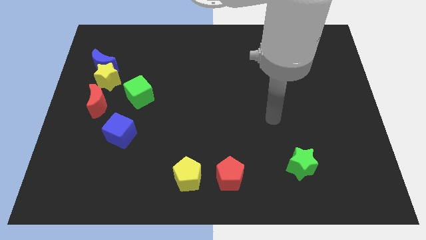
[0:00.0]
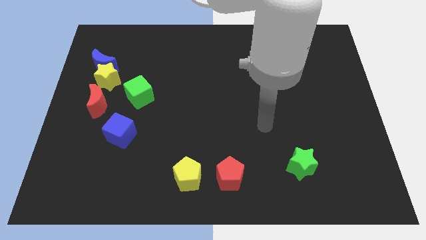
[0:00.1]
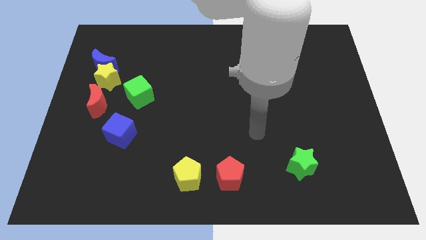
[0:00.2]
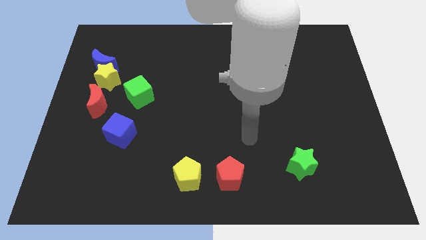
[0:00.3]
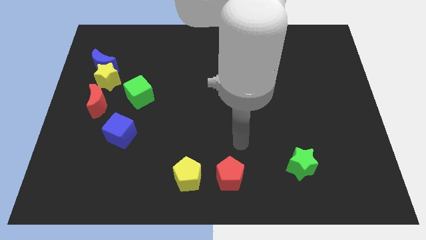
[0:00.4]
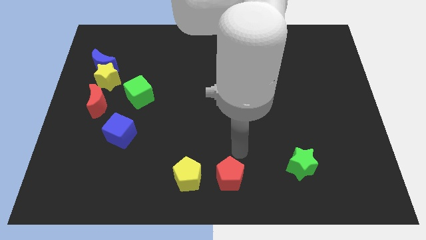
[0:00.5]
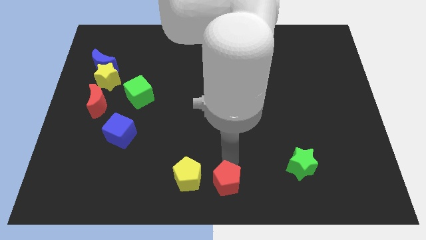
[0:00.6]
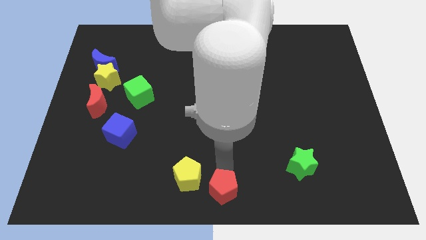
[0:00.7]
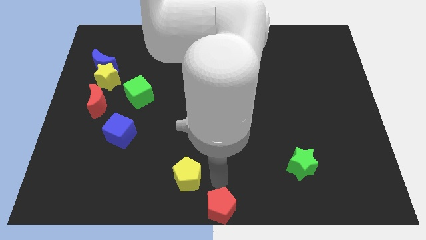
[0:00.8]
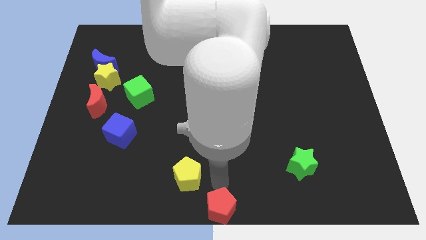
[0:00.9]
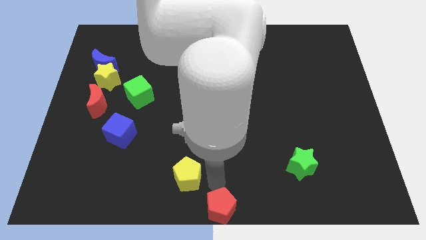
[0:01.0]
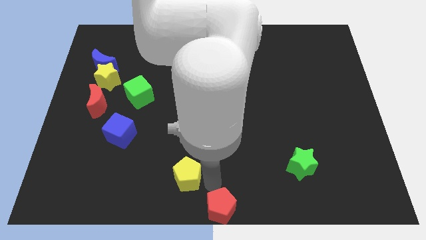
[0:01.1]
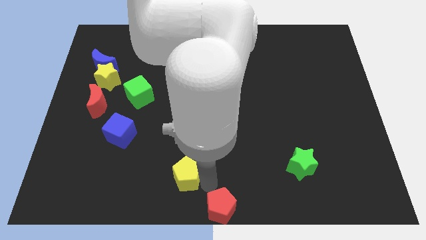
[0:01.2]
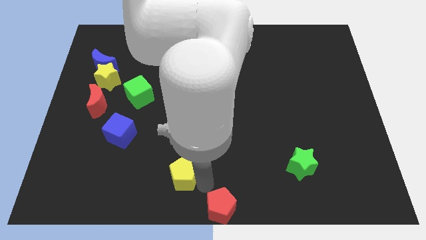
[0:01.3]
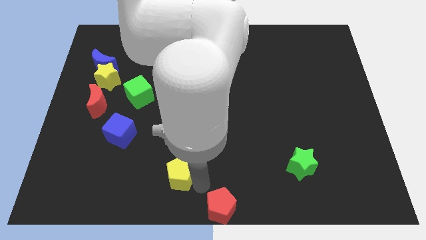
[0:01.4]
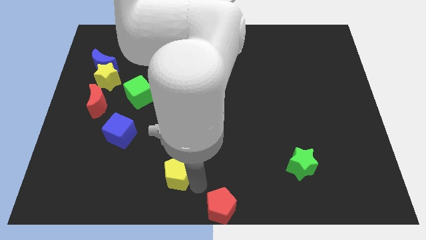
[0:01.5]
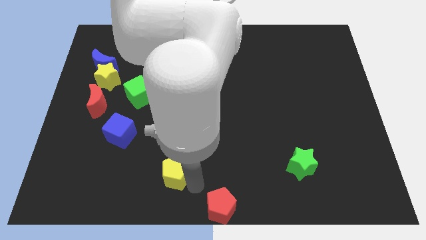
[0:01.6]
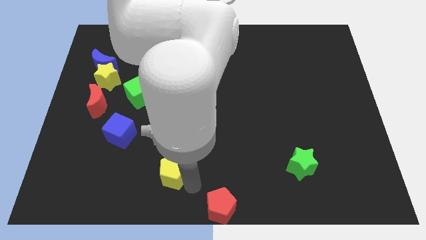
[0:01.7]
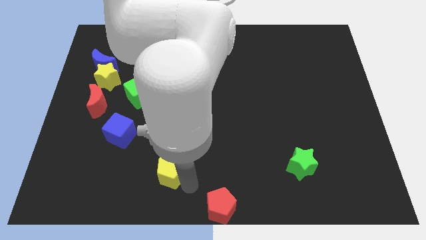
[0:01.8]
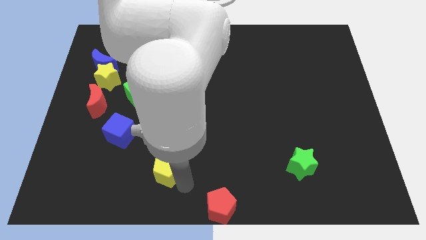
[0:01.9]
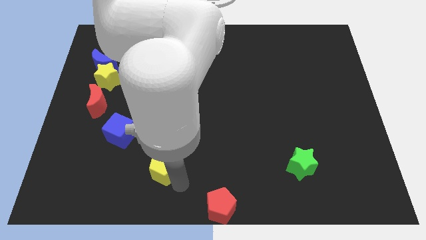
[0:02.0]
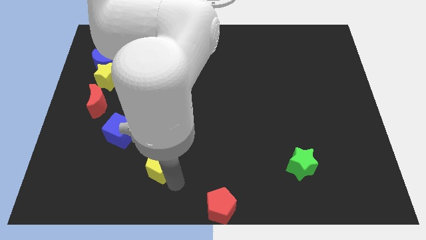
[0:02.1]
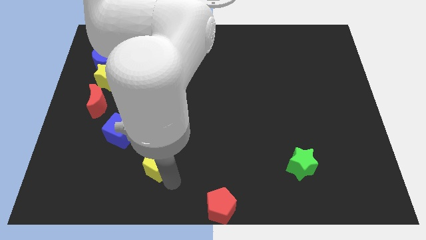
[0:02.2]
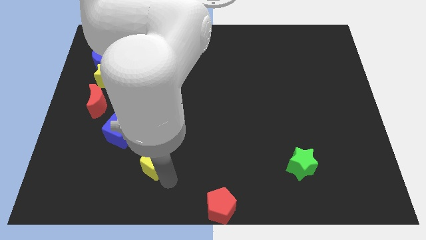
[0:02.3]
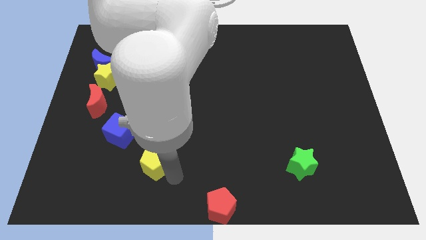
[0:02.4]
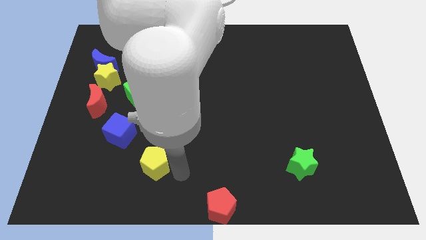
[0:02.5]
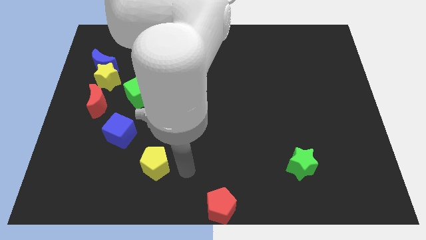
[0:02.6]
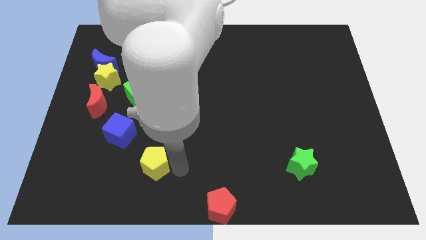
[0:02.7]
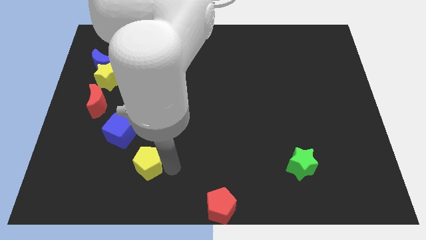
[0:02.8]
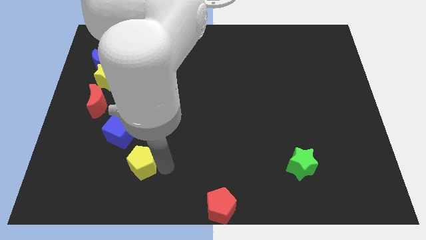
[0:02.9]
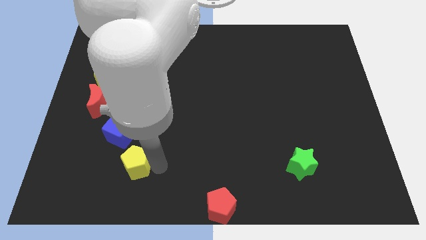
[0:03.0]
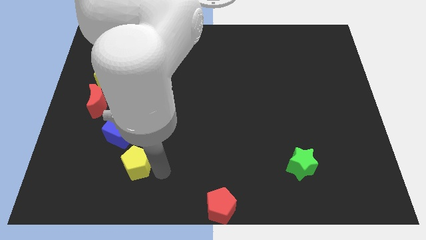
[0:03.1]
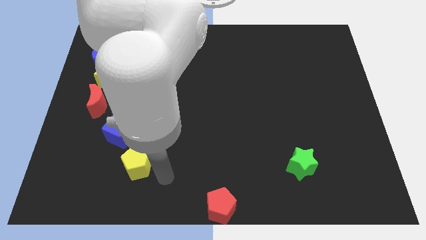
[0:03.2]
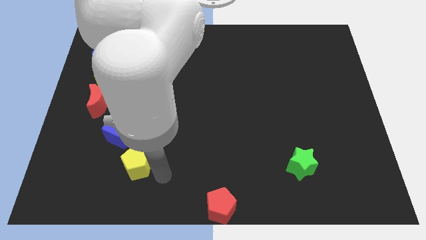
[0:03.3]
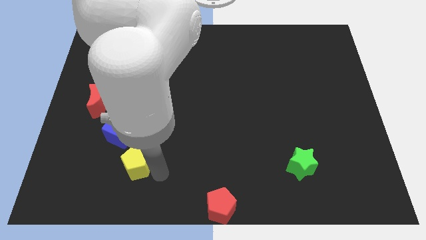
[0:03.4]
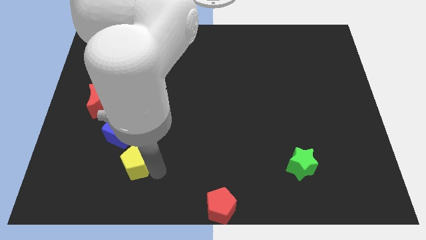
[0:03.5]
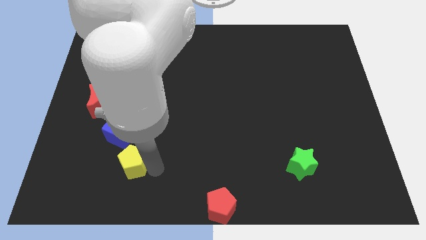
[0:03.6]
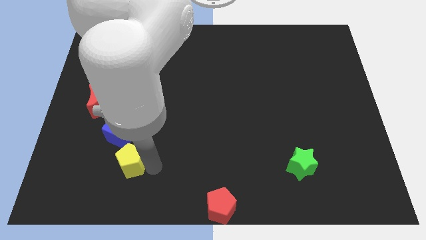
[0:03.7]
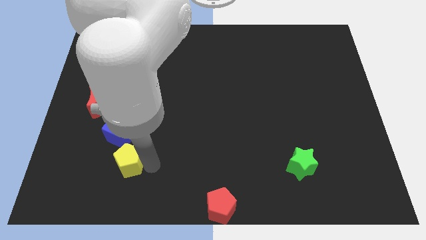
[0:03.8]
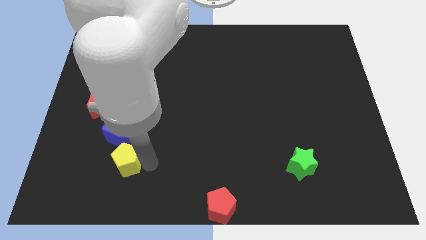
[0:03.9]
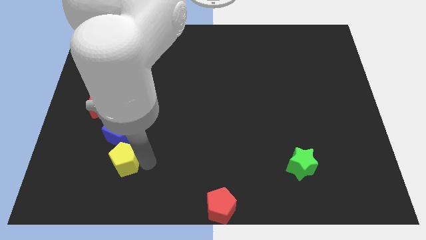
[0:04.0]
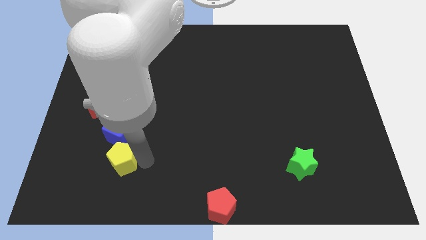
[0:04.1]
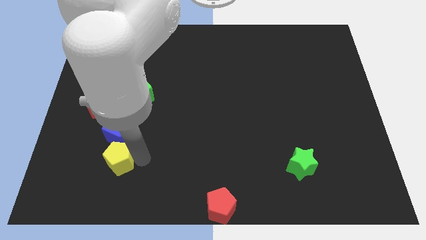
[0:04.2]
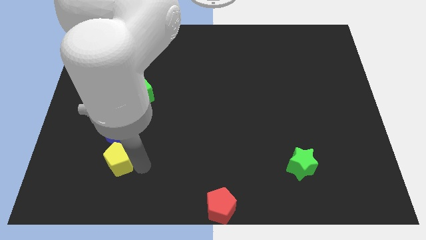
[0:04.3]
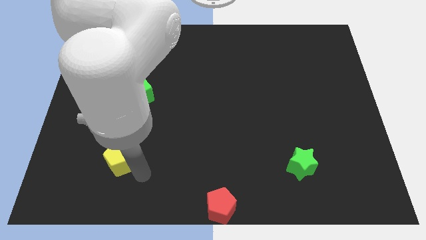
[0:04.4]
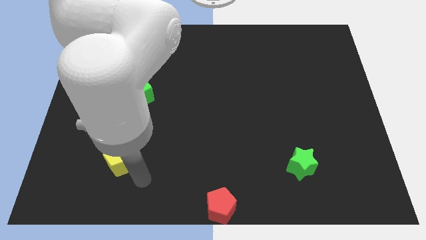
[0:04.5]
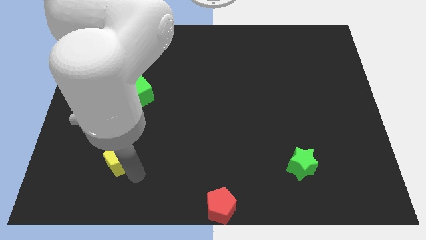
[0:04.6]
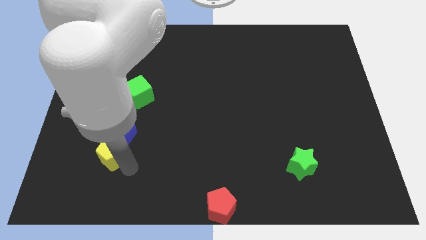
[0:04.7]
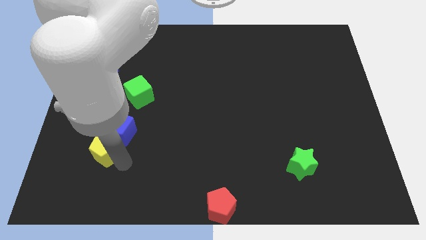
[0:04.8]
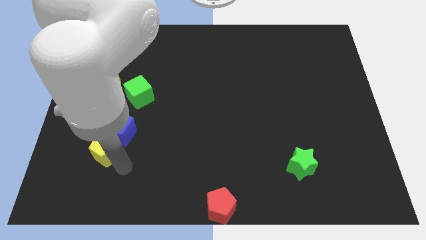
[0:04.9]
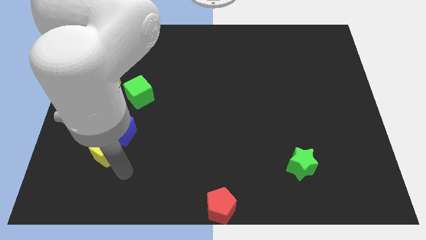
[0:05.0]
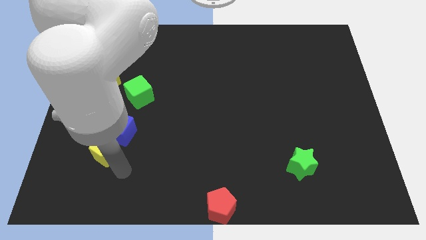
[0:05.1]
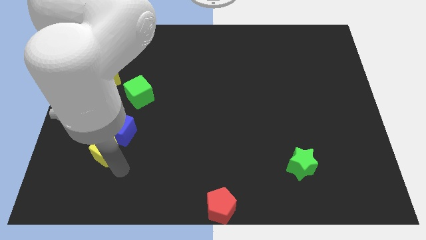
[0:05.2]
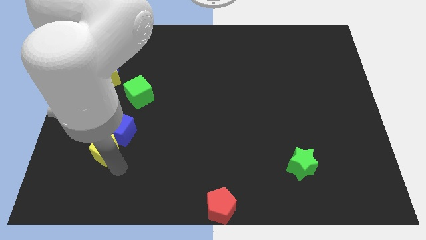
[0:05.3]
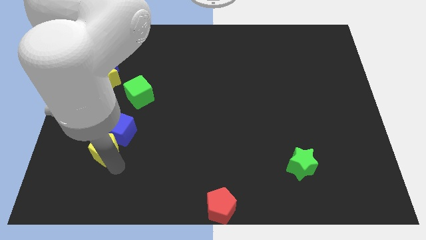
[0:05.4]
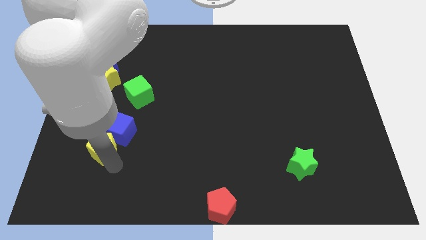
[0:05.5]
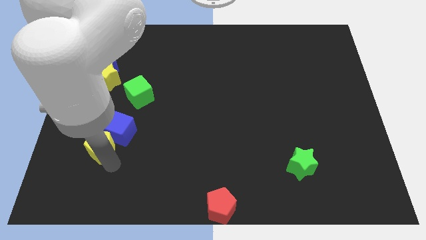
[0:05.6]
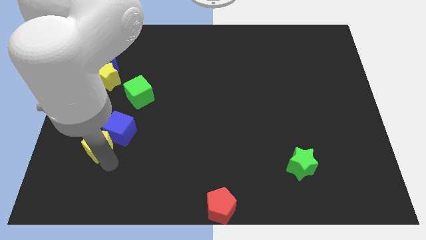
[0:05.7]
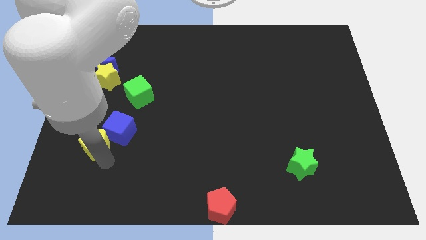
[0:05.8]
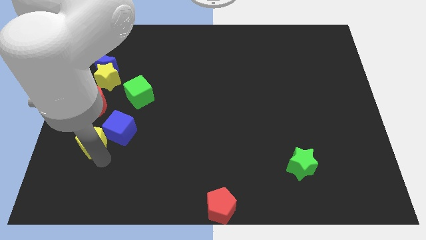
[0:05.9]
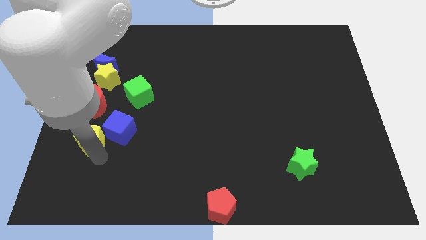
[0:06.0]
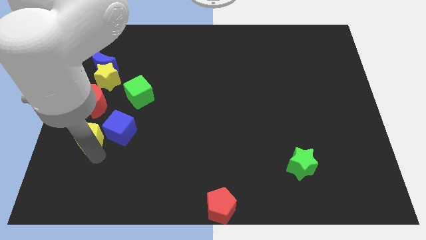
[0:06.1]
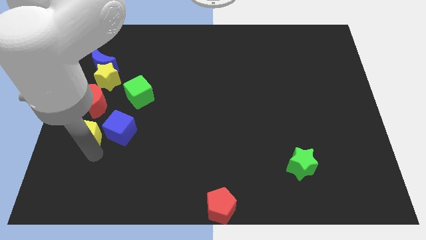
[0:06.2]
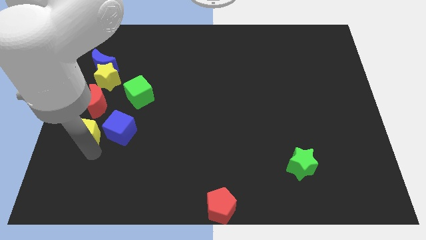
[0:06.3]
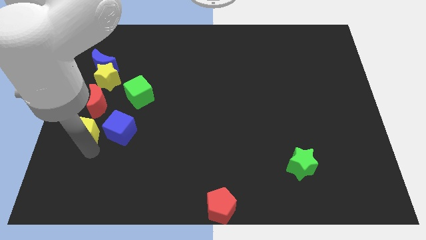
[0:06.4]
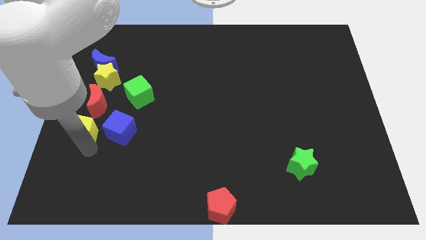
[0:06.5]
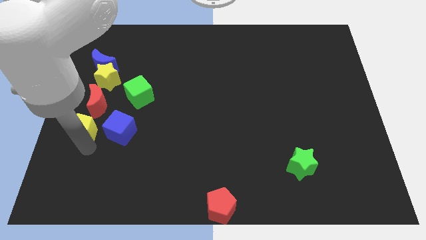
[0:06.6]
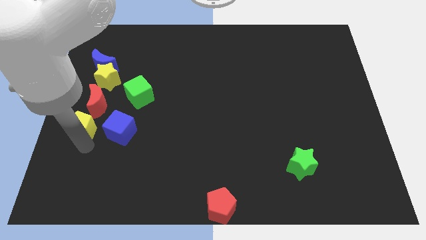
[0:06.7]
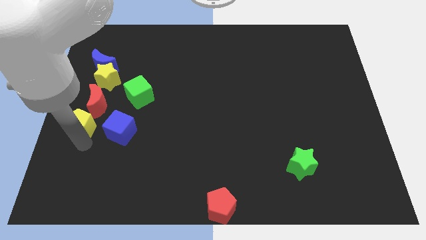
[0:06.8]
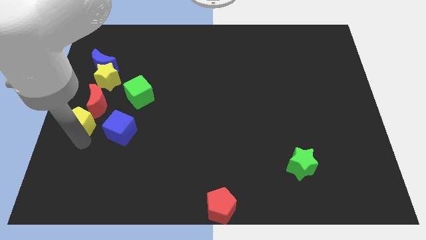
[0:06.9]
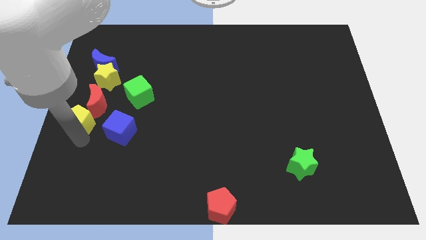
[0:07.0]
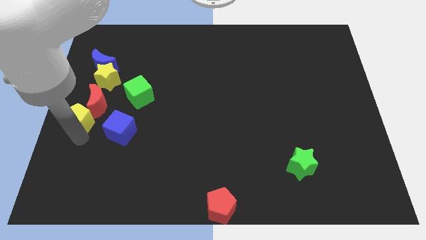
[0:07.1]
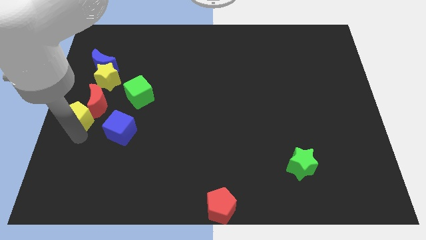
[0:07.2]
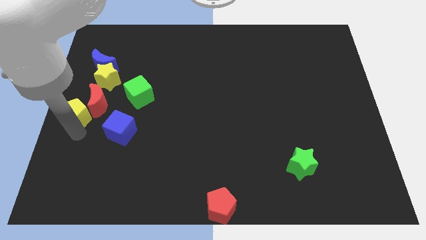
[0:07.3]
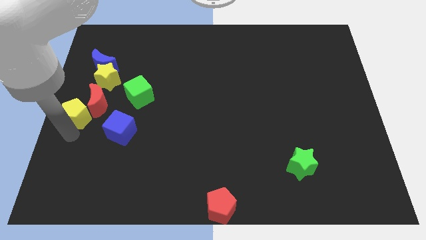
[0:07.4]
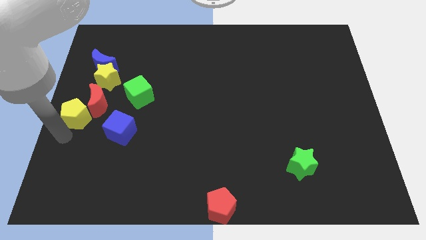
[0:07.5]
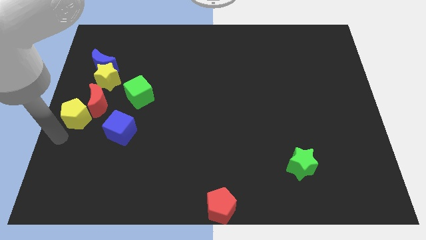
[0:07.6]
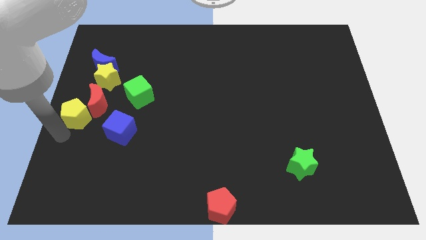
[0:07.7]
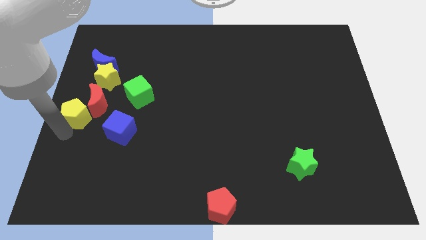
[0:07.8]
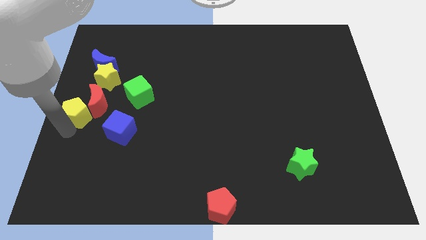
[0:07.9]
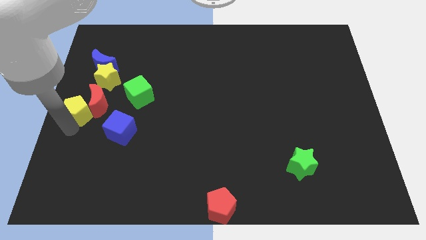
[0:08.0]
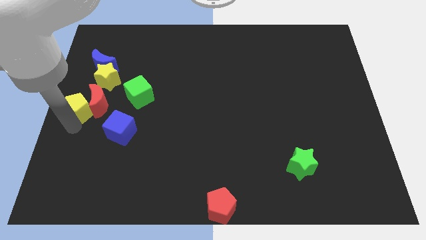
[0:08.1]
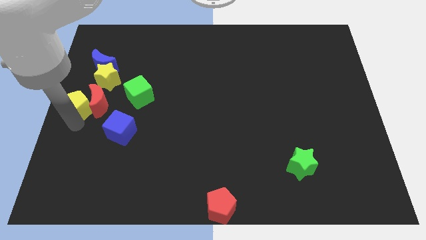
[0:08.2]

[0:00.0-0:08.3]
put the yellow pentagon to the left of the green cube
